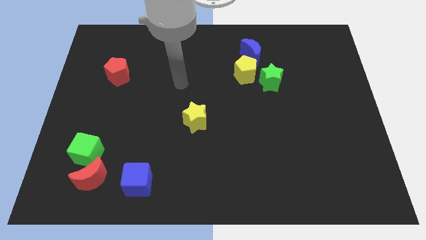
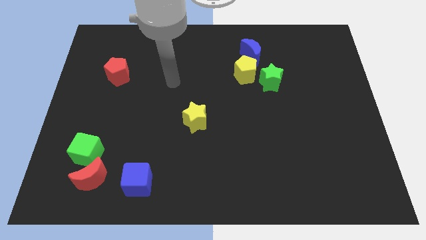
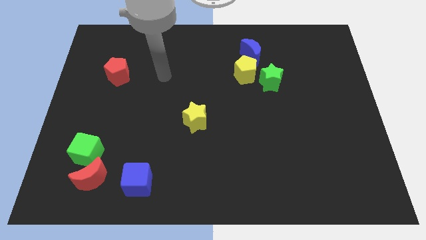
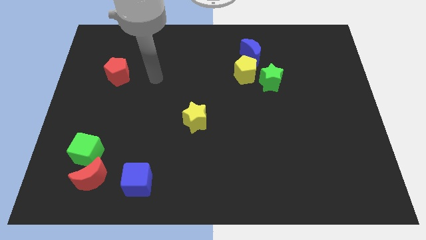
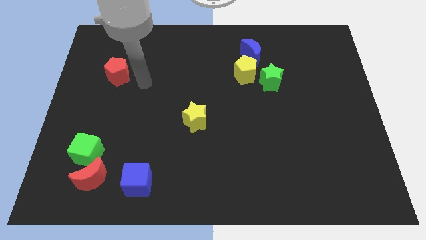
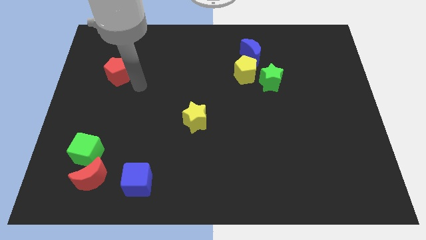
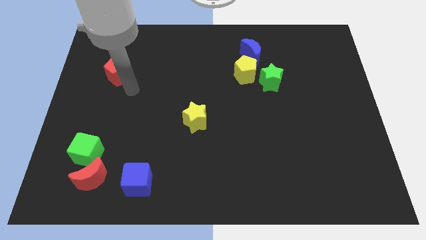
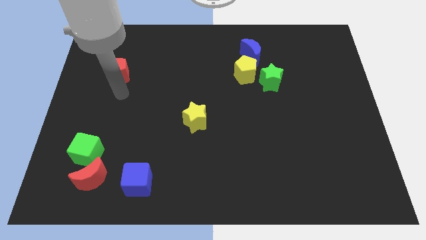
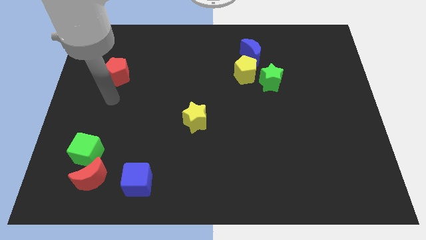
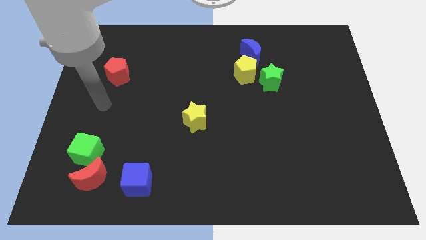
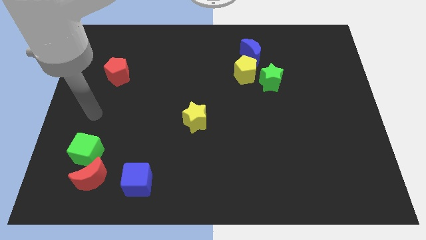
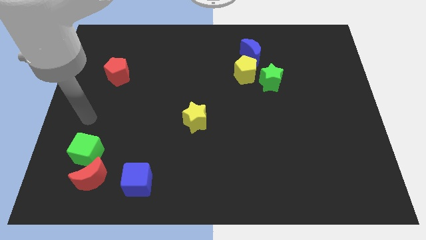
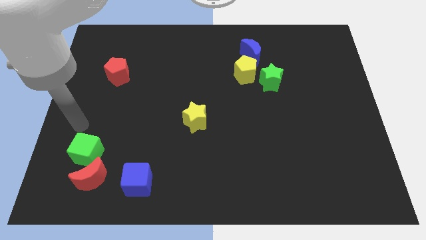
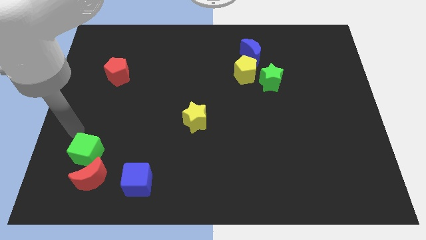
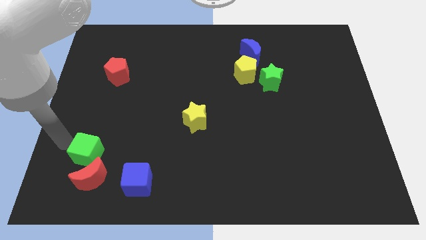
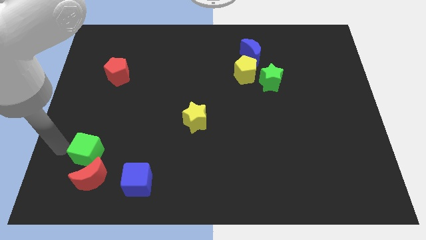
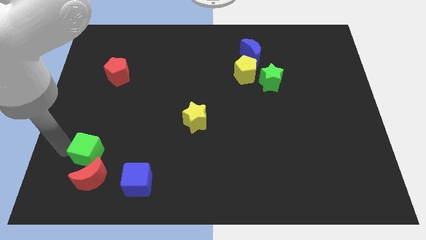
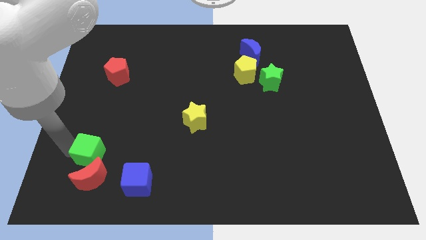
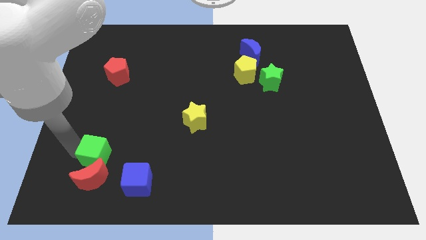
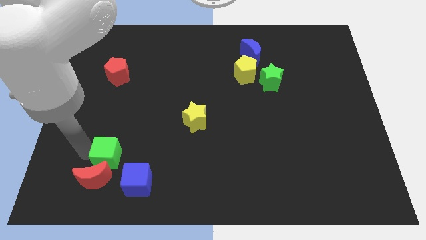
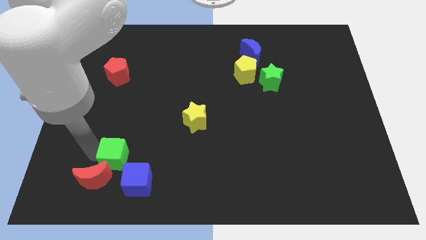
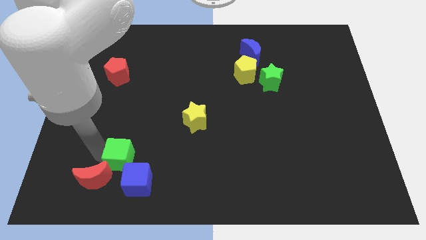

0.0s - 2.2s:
slide the green cube a bit to the right

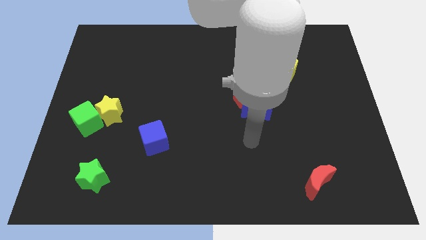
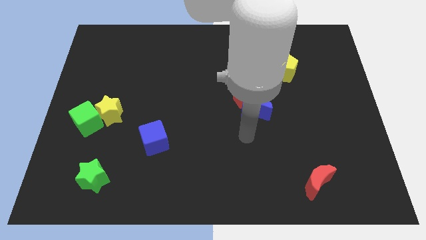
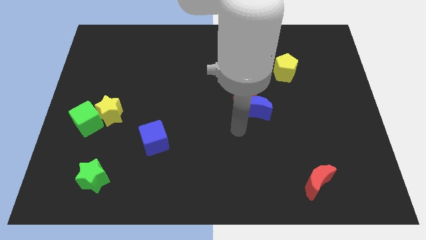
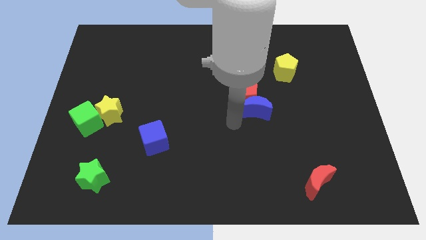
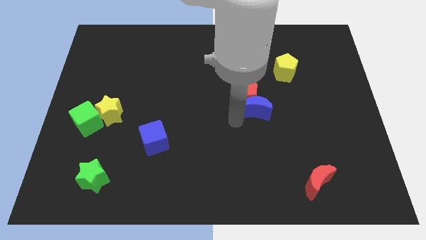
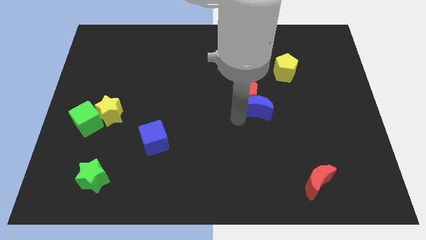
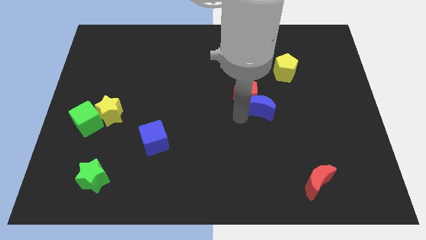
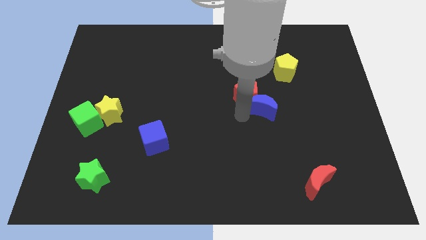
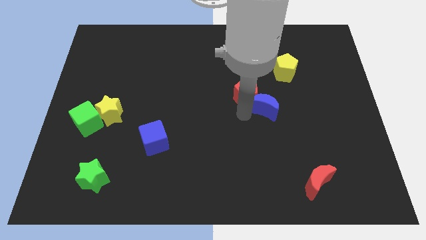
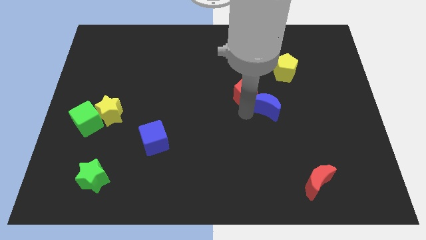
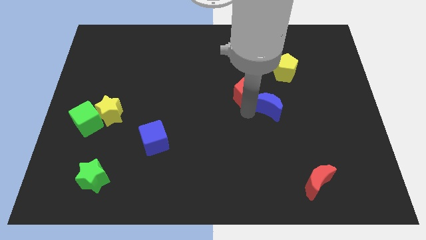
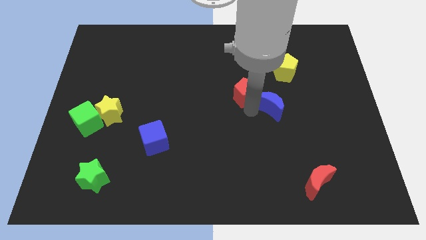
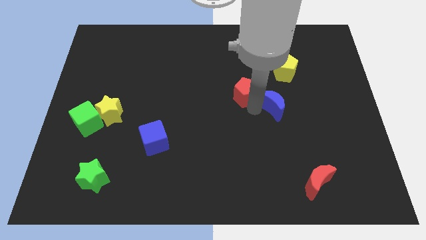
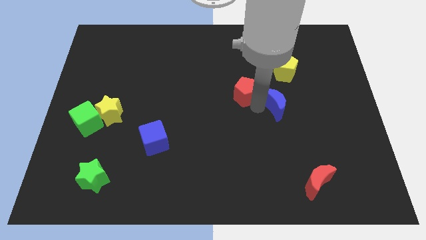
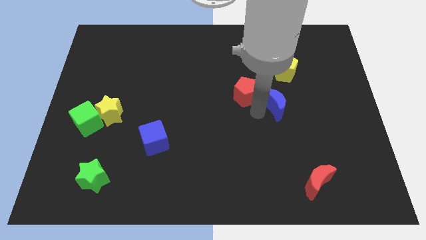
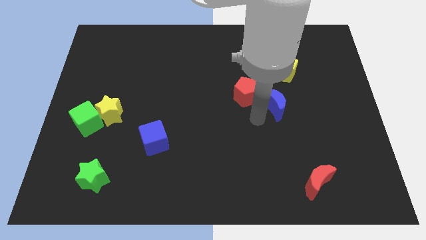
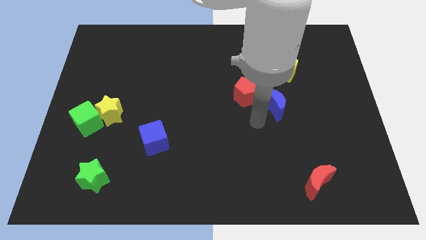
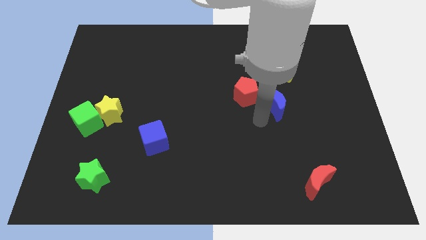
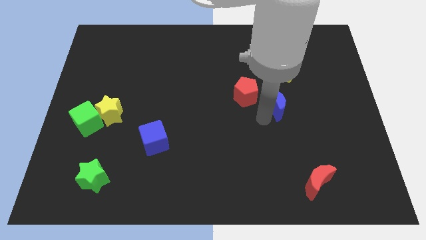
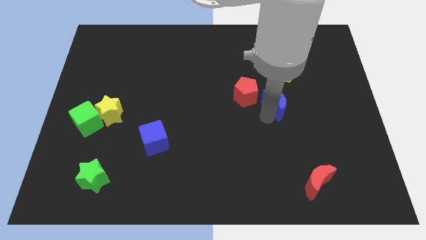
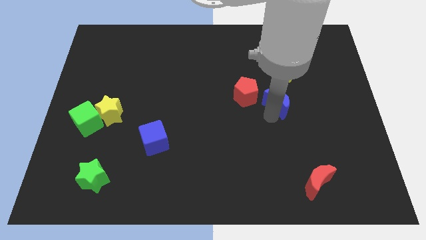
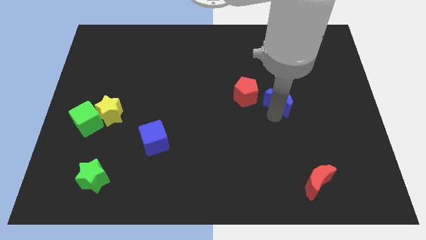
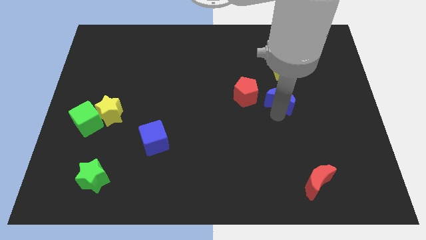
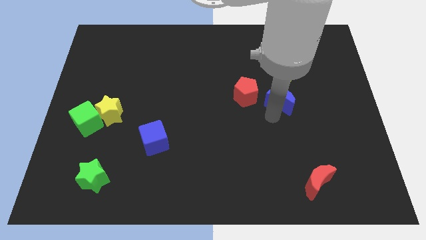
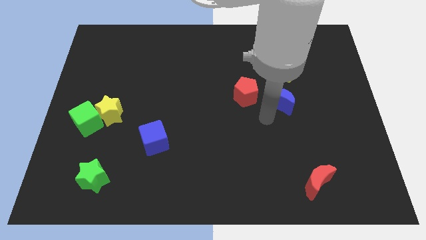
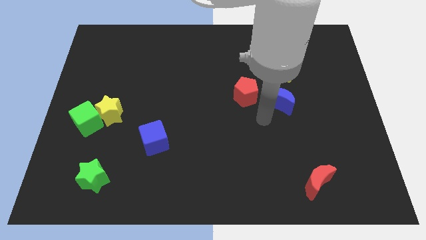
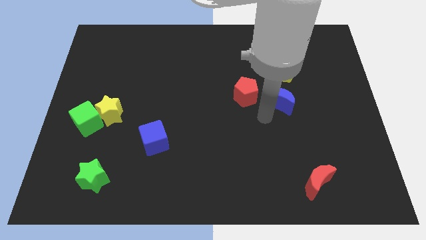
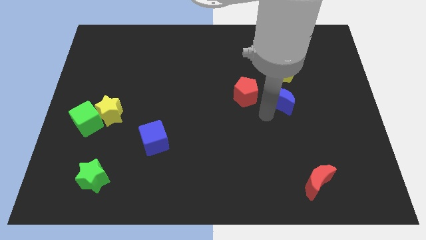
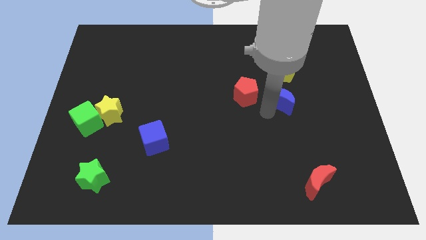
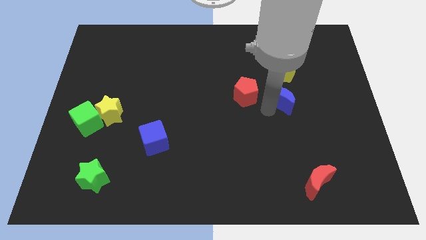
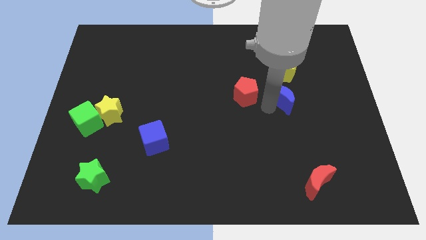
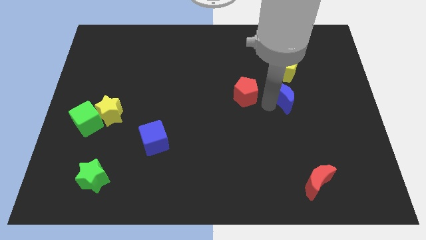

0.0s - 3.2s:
move the blue moon a little bit up and then to the right

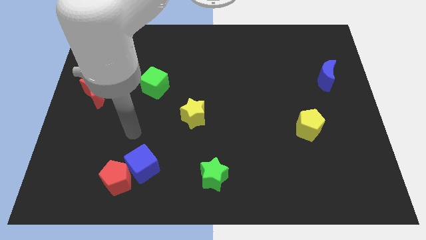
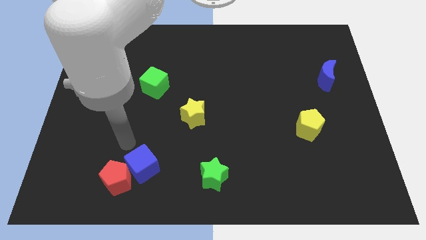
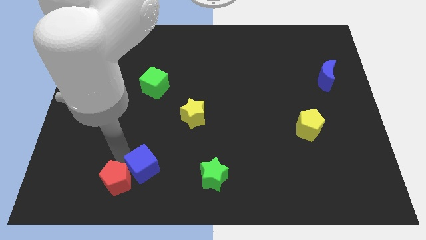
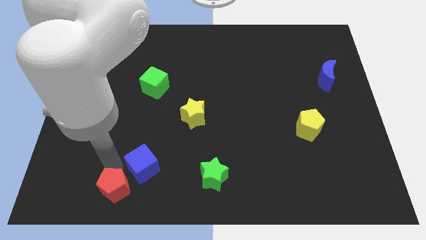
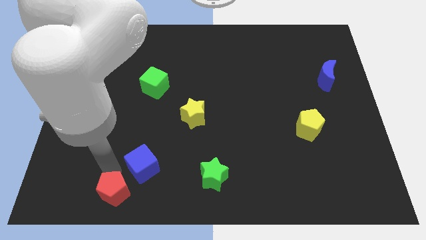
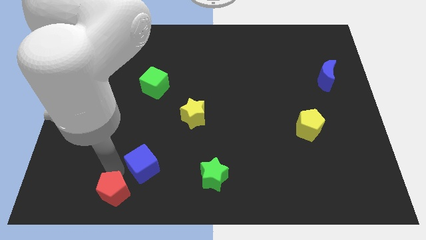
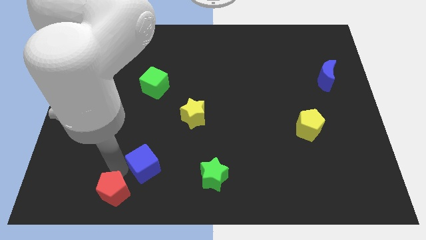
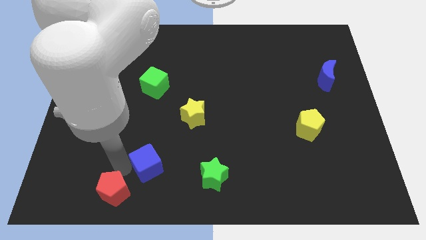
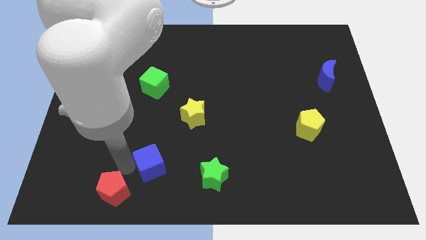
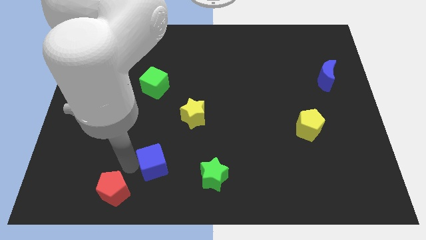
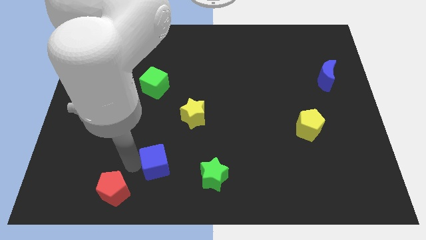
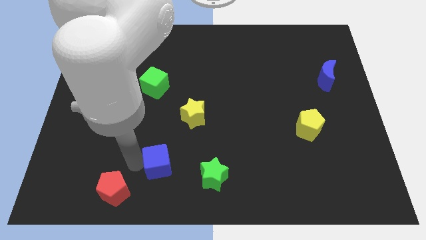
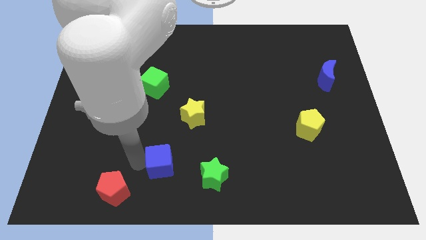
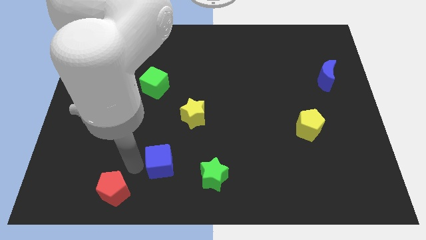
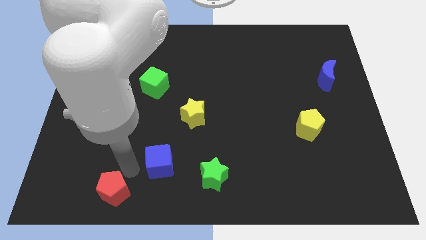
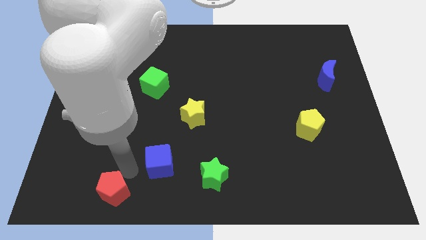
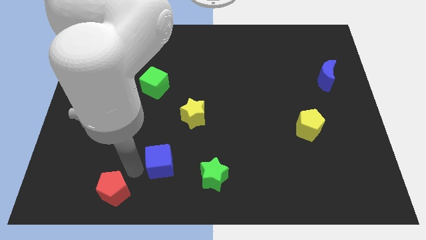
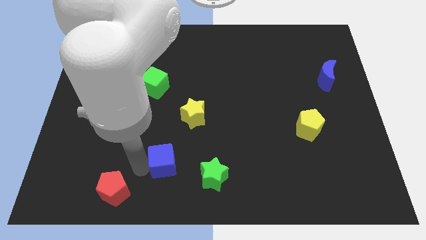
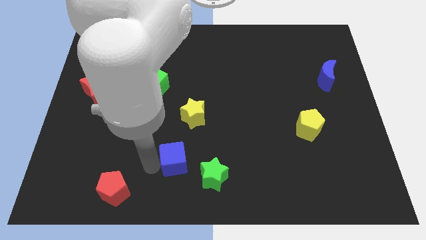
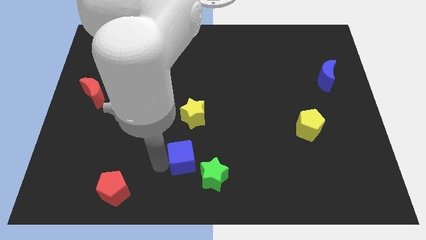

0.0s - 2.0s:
slightly slide the blue cube to the right

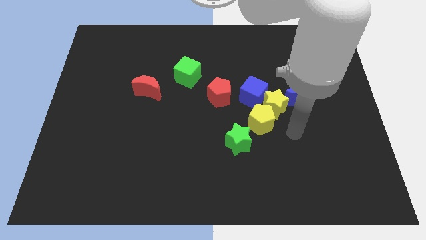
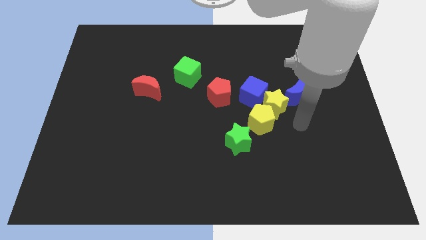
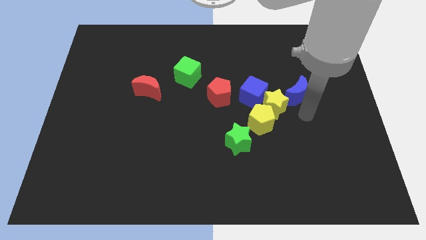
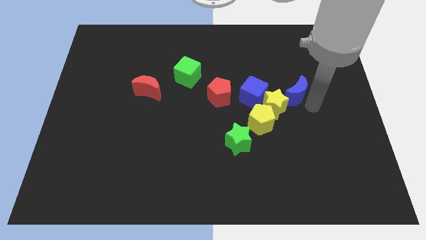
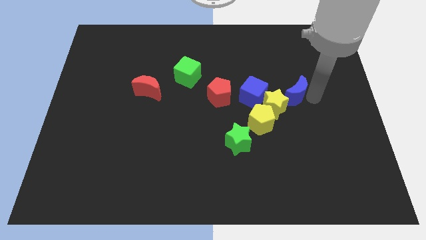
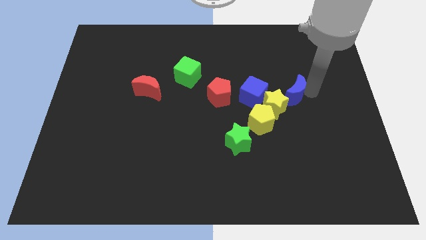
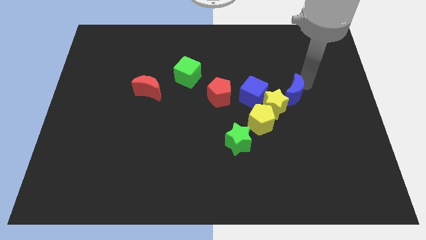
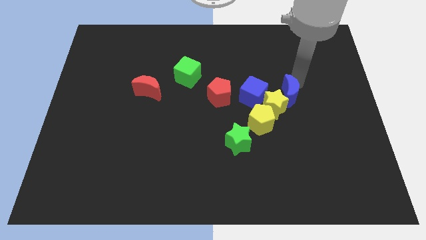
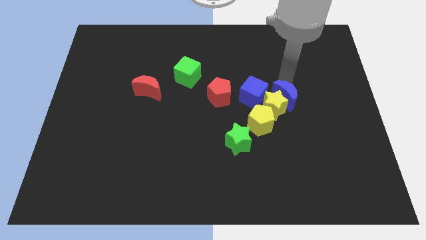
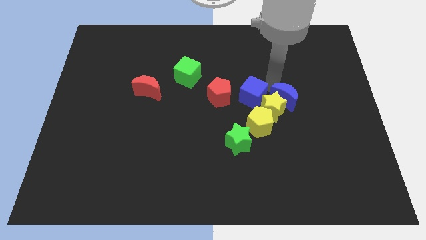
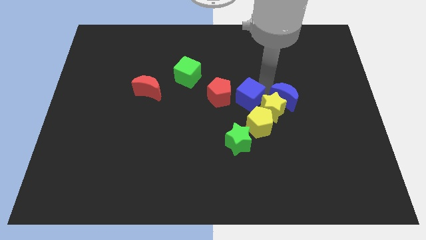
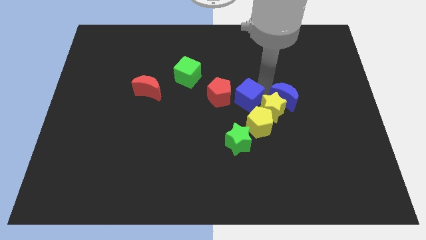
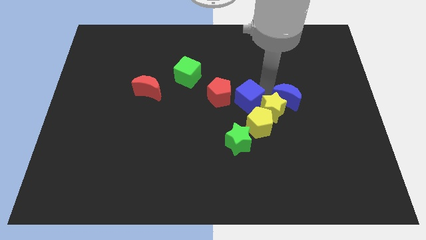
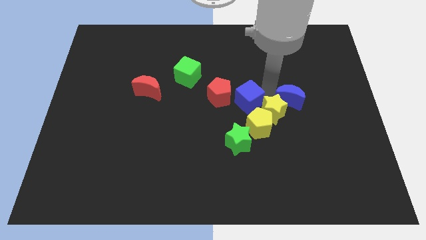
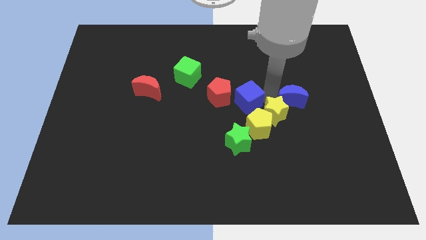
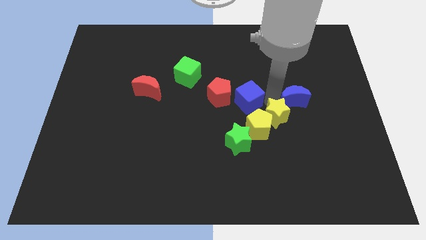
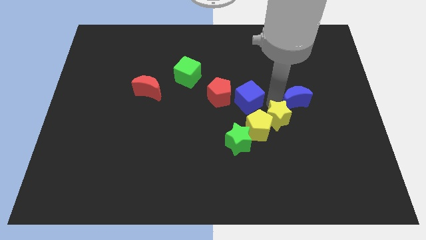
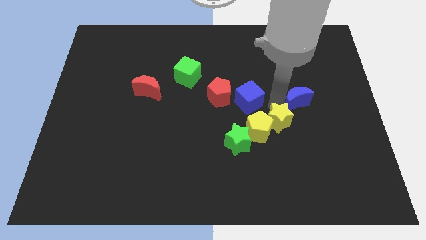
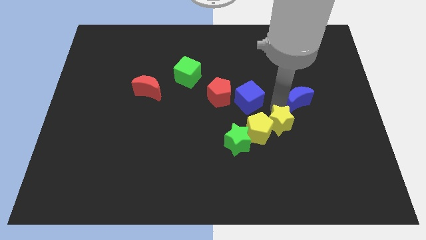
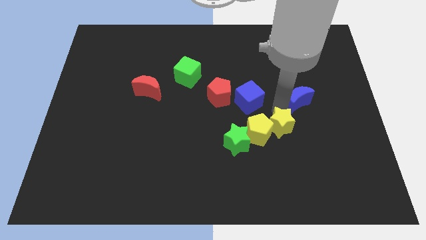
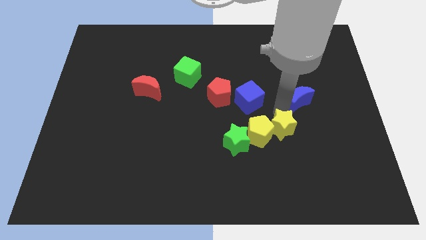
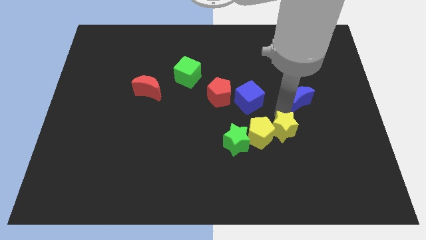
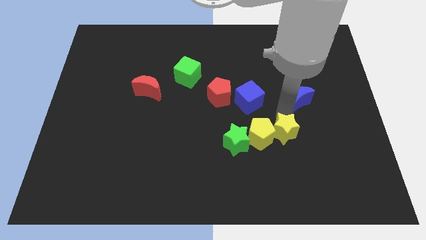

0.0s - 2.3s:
slide the yellow star downwards a little
